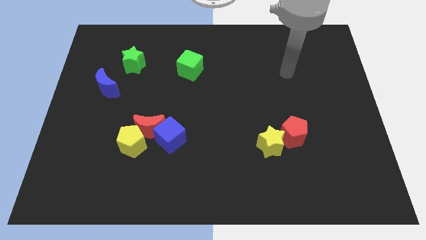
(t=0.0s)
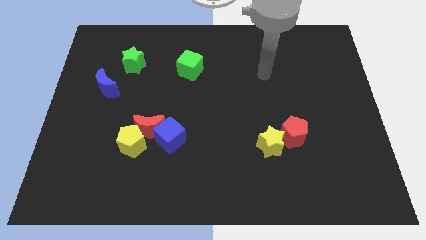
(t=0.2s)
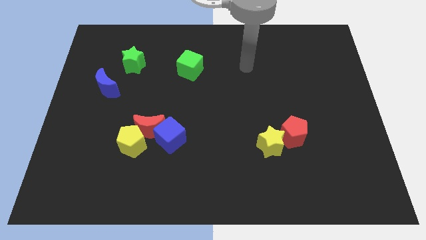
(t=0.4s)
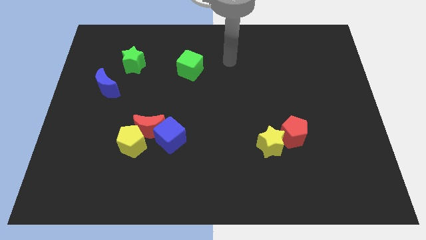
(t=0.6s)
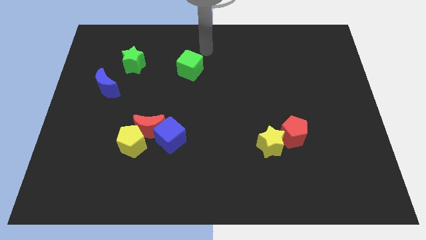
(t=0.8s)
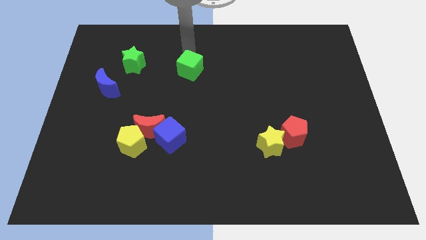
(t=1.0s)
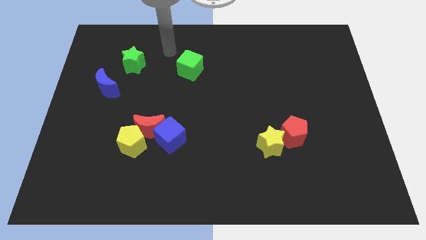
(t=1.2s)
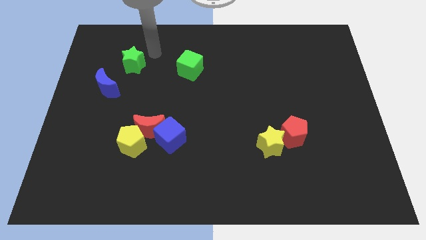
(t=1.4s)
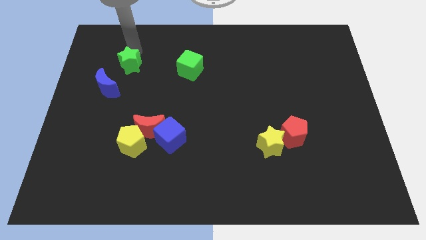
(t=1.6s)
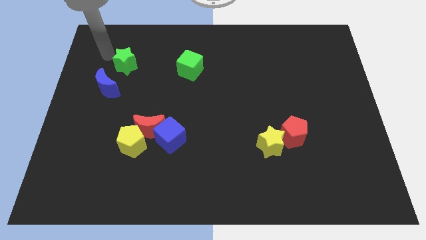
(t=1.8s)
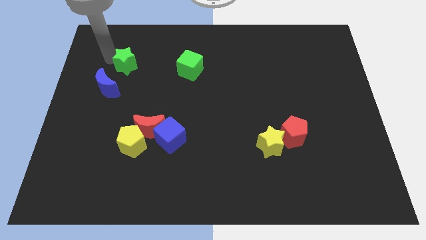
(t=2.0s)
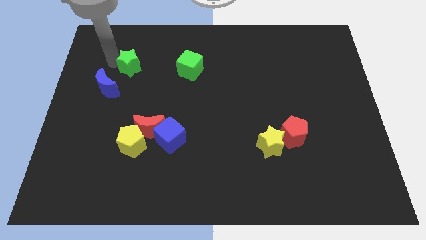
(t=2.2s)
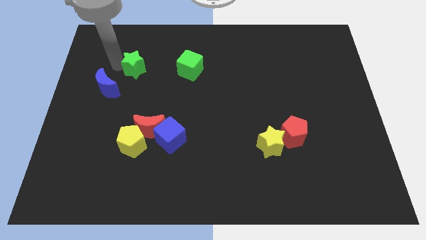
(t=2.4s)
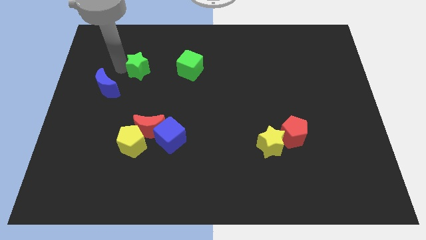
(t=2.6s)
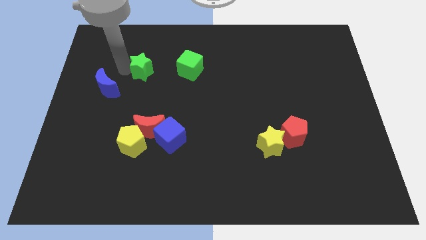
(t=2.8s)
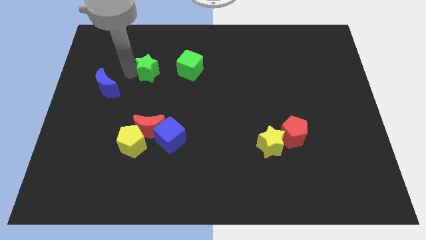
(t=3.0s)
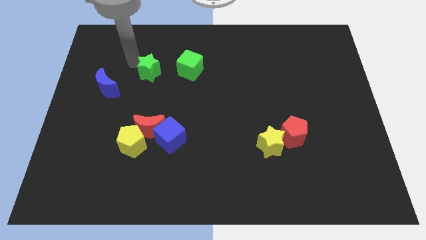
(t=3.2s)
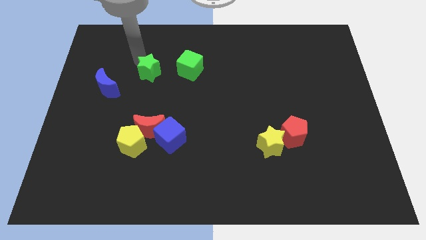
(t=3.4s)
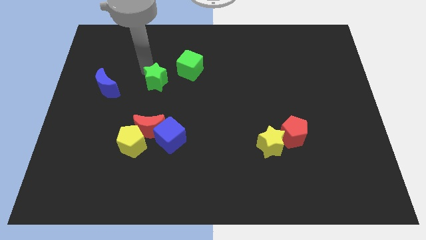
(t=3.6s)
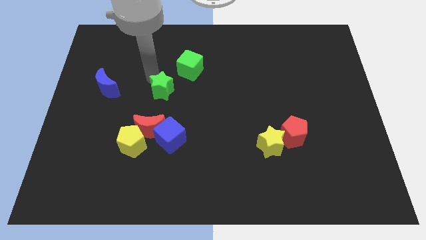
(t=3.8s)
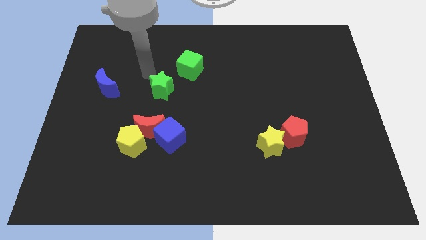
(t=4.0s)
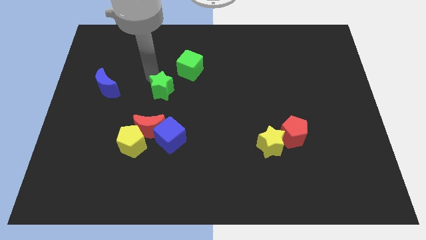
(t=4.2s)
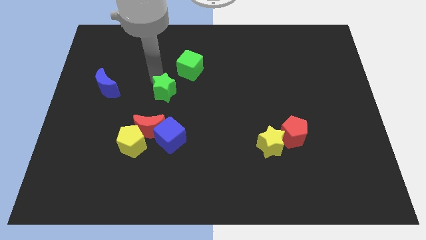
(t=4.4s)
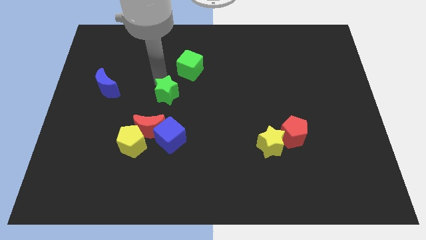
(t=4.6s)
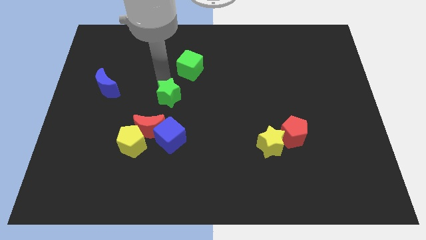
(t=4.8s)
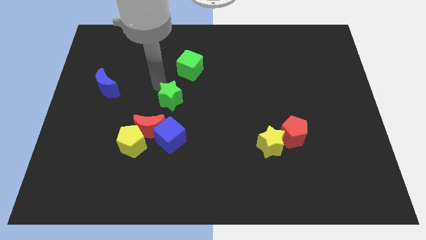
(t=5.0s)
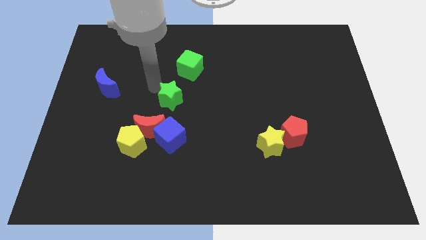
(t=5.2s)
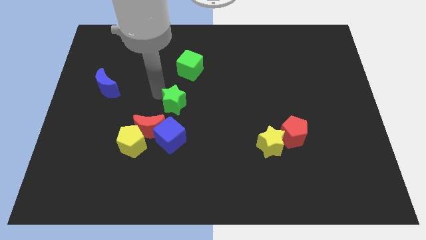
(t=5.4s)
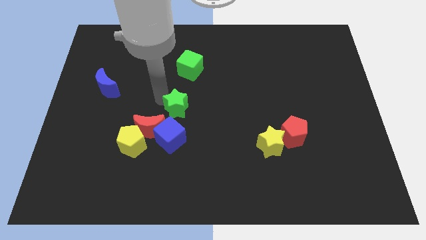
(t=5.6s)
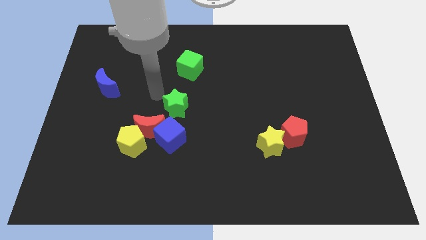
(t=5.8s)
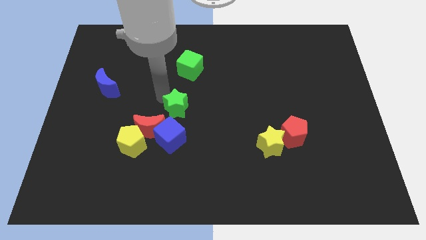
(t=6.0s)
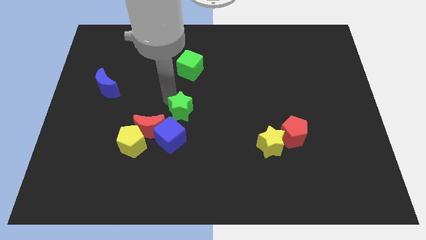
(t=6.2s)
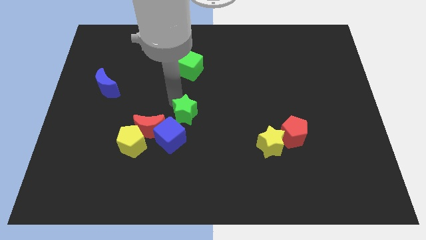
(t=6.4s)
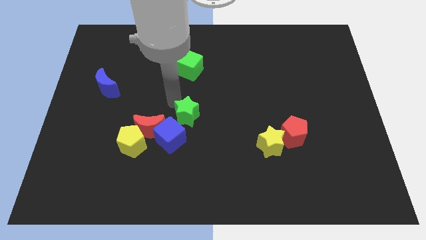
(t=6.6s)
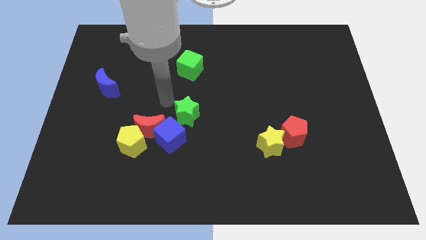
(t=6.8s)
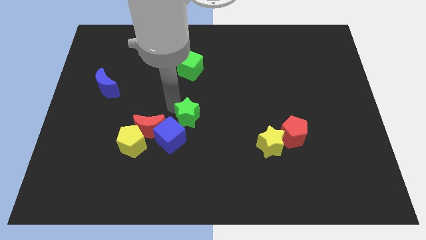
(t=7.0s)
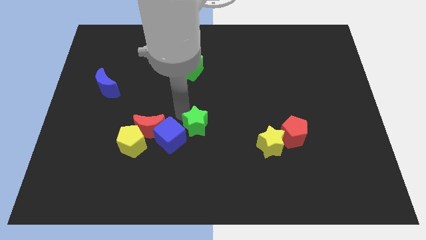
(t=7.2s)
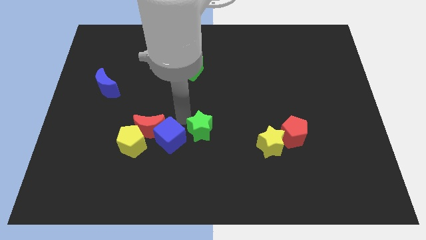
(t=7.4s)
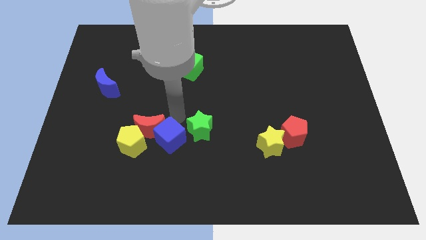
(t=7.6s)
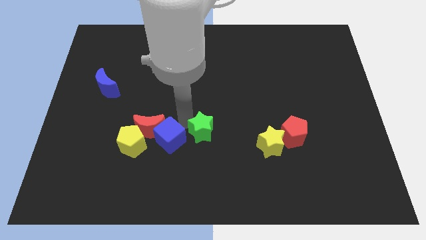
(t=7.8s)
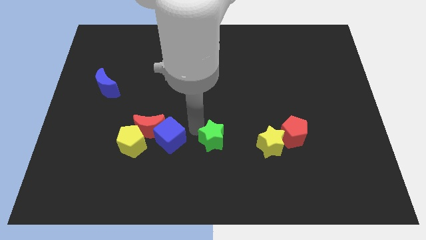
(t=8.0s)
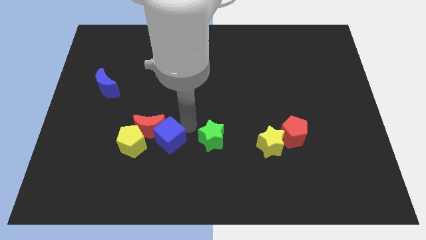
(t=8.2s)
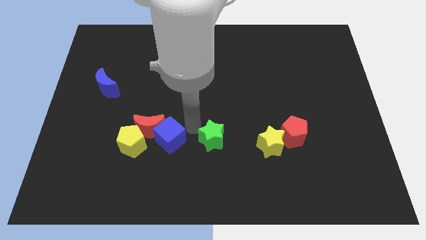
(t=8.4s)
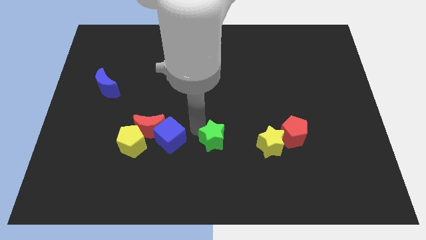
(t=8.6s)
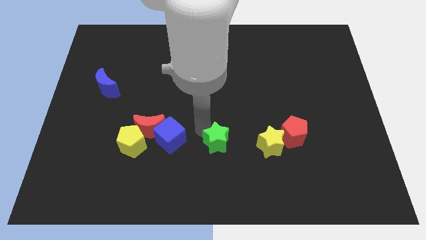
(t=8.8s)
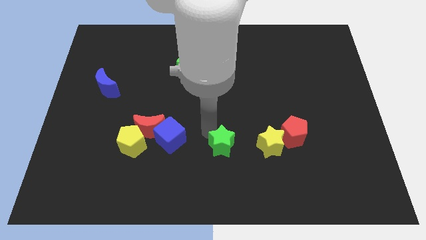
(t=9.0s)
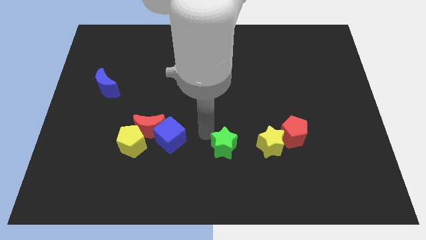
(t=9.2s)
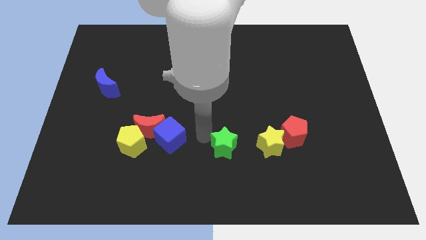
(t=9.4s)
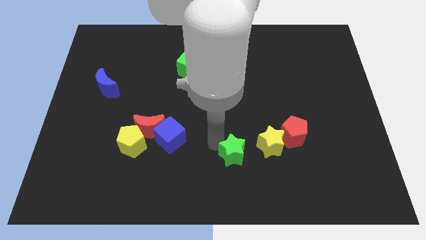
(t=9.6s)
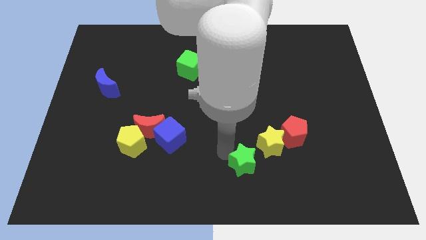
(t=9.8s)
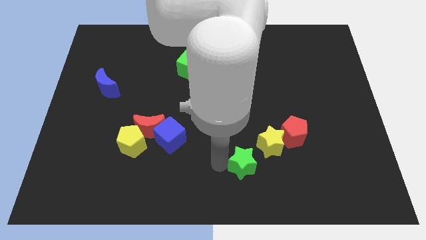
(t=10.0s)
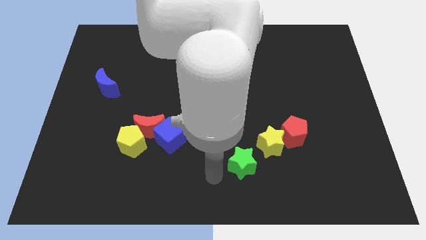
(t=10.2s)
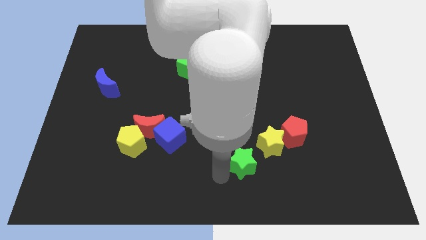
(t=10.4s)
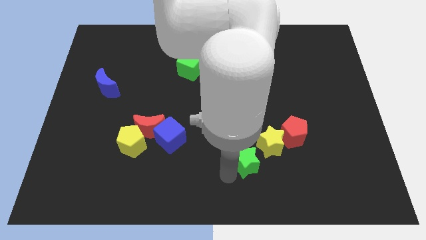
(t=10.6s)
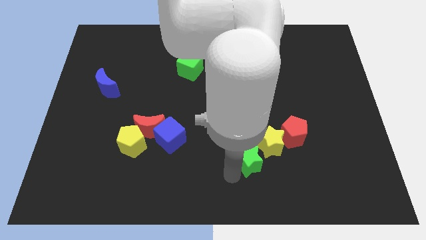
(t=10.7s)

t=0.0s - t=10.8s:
push the green star diagonally down and to the left of the red pentagon

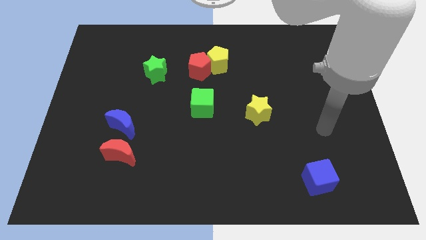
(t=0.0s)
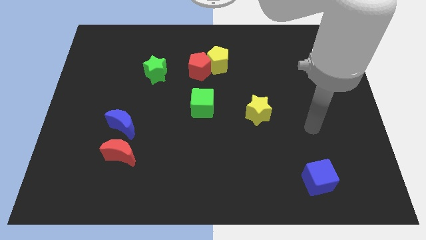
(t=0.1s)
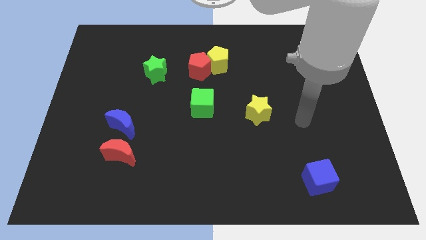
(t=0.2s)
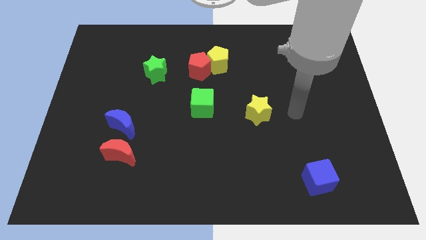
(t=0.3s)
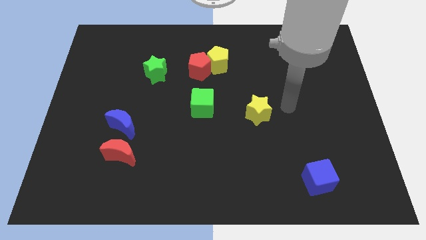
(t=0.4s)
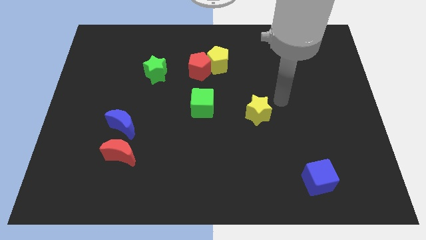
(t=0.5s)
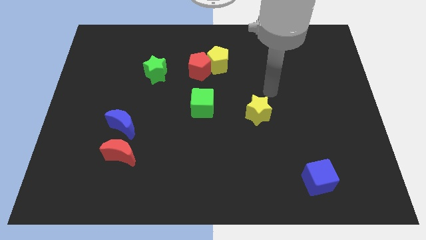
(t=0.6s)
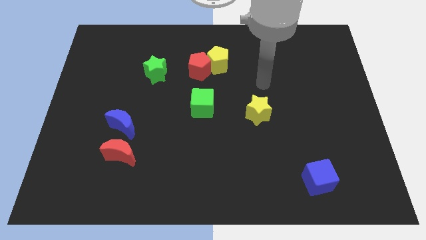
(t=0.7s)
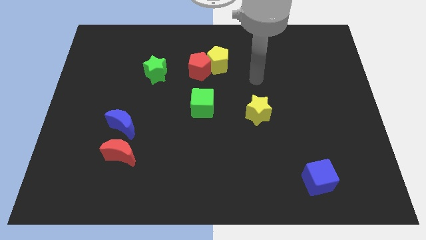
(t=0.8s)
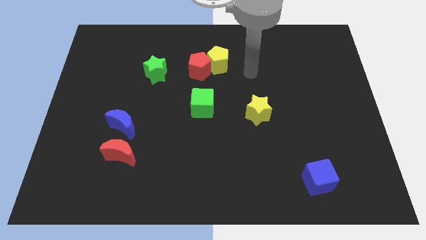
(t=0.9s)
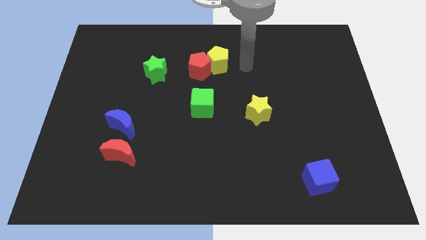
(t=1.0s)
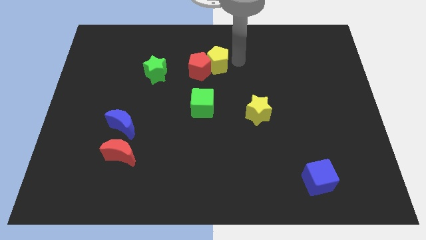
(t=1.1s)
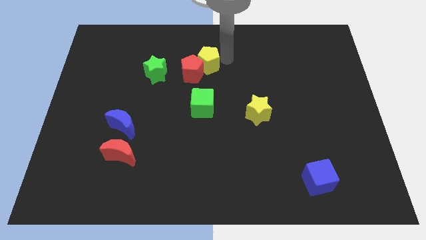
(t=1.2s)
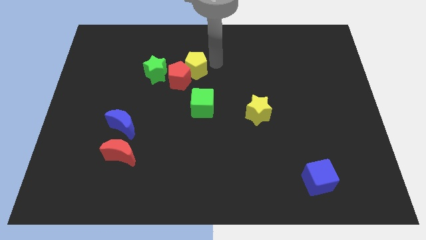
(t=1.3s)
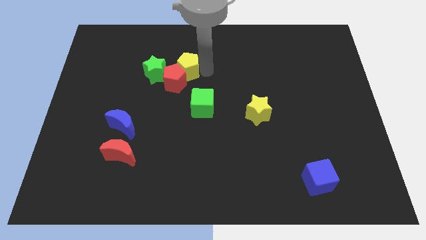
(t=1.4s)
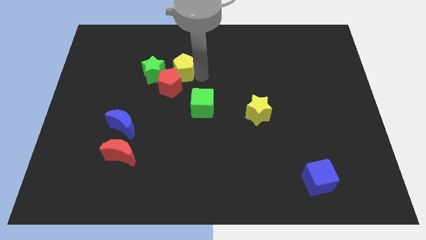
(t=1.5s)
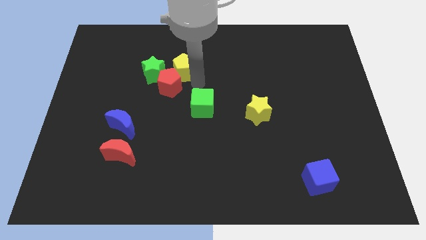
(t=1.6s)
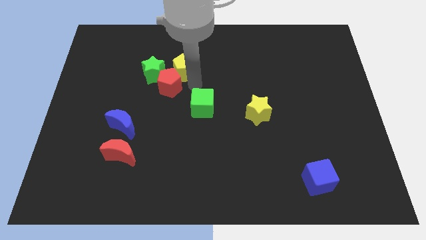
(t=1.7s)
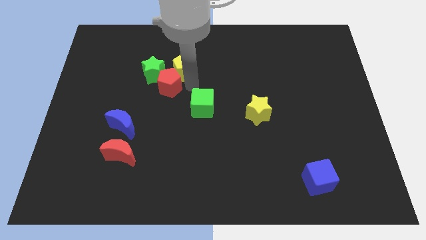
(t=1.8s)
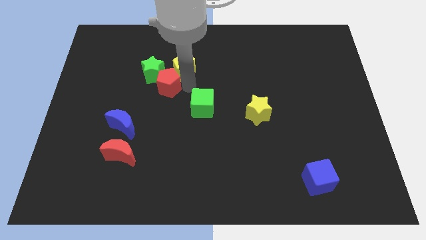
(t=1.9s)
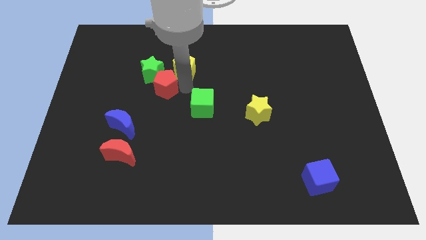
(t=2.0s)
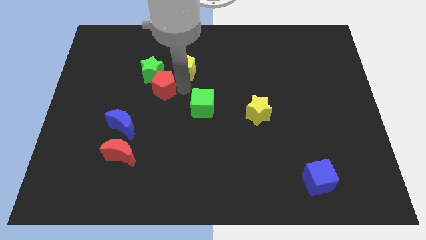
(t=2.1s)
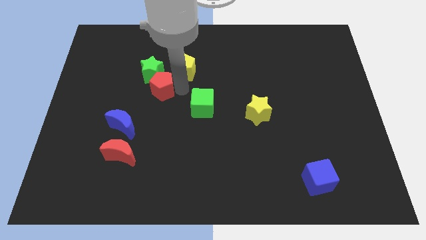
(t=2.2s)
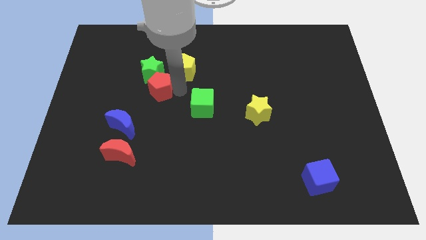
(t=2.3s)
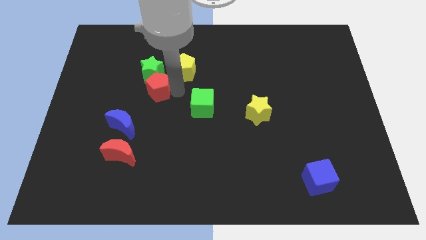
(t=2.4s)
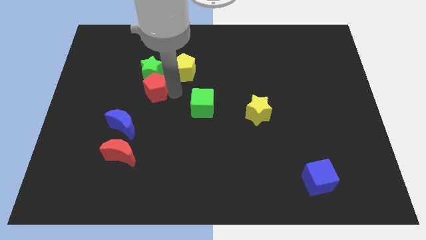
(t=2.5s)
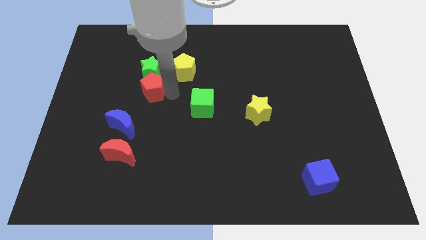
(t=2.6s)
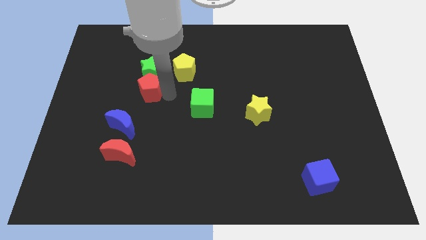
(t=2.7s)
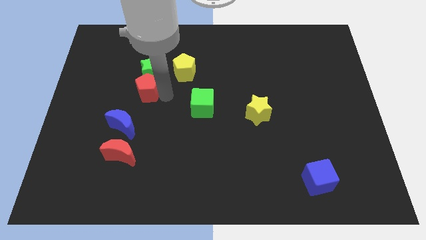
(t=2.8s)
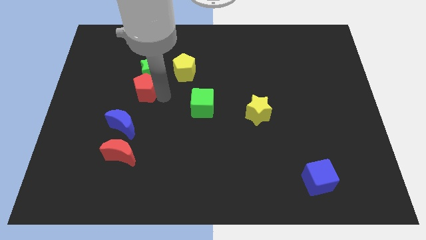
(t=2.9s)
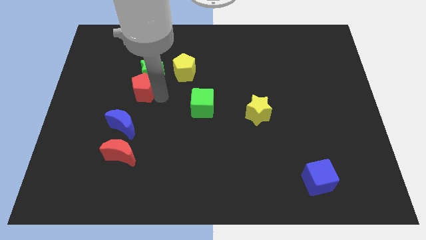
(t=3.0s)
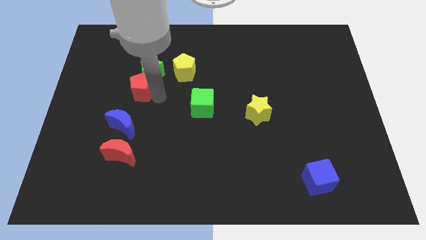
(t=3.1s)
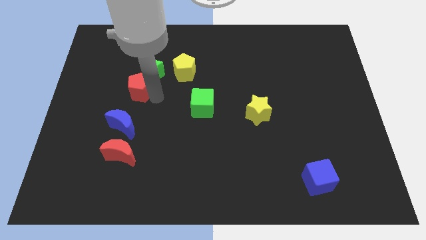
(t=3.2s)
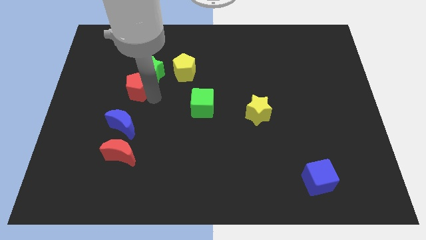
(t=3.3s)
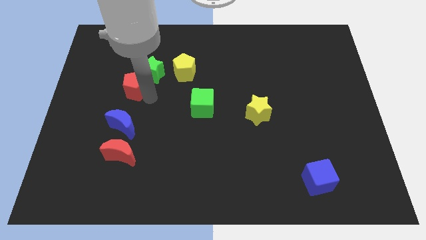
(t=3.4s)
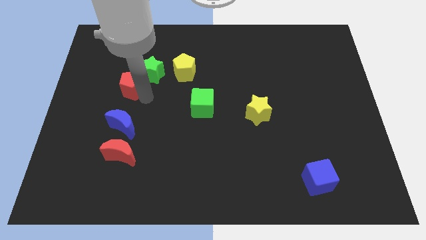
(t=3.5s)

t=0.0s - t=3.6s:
put the red pentagon left of the green star
